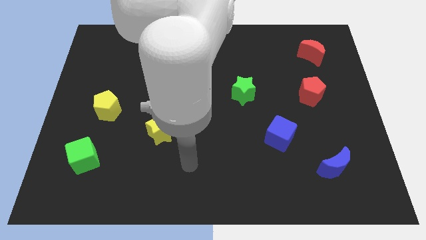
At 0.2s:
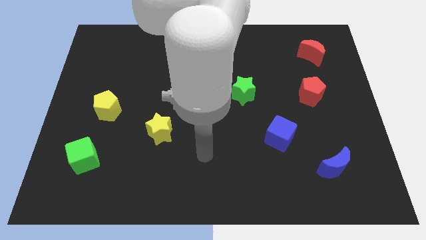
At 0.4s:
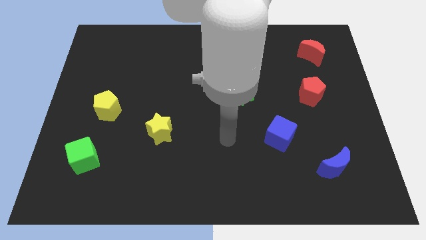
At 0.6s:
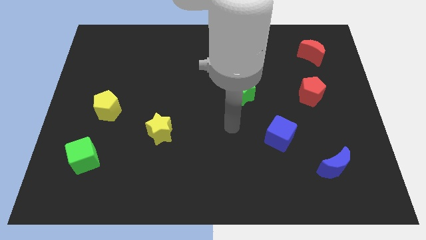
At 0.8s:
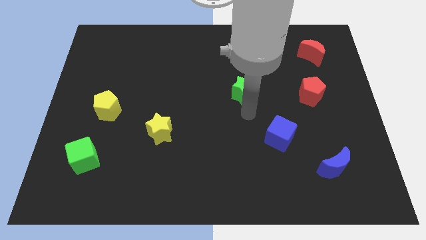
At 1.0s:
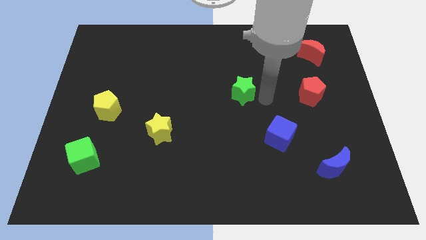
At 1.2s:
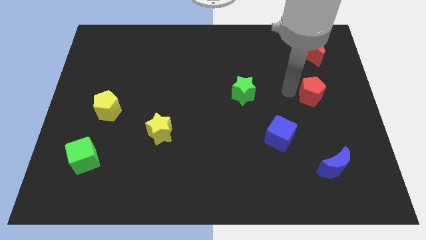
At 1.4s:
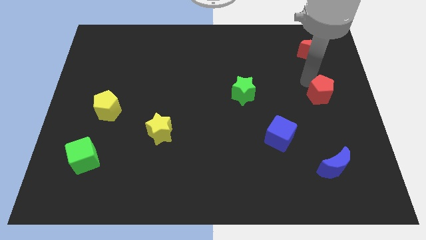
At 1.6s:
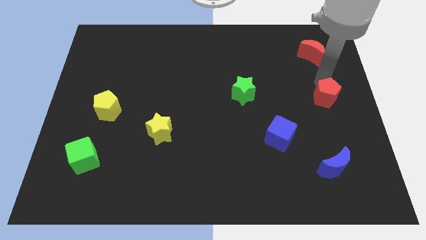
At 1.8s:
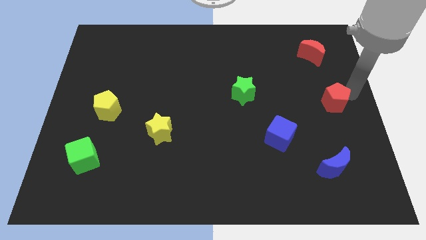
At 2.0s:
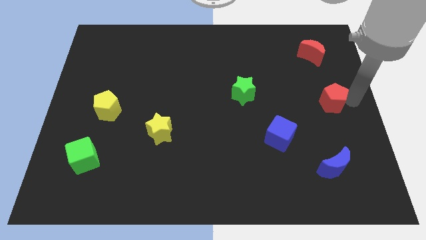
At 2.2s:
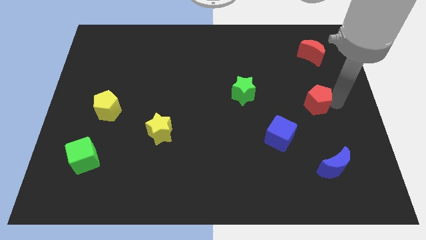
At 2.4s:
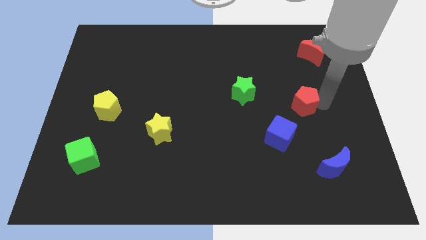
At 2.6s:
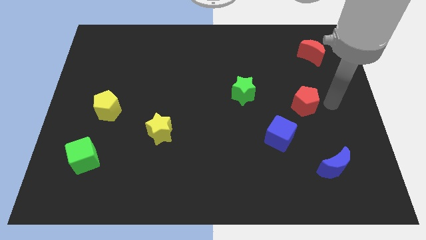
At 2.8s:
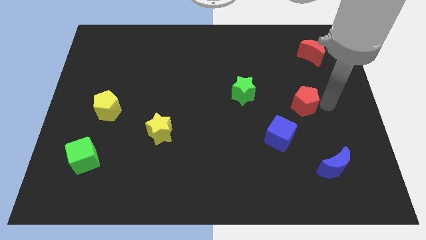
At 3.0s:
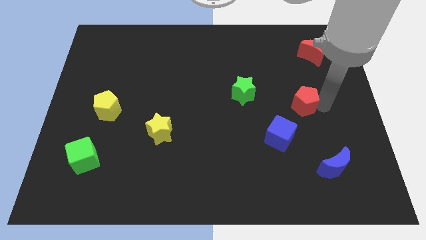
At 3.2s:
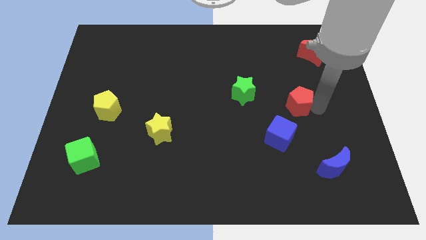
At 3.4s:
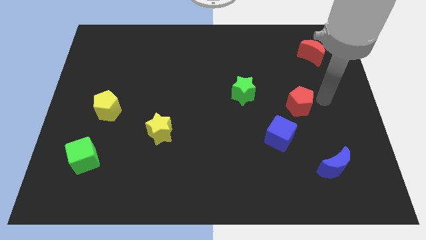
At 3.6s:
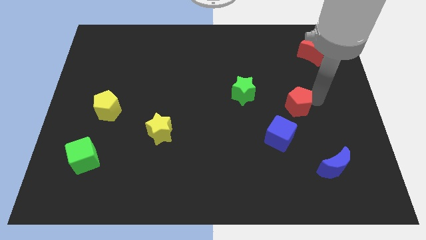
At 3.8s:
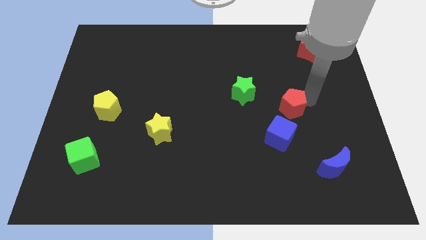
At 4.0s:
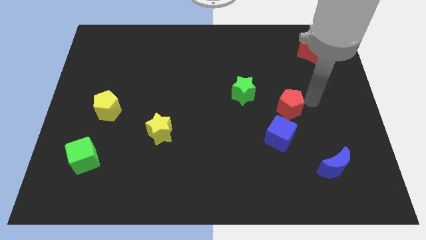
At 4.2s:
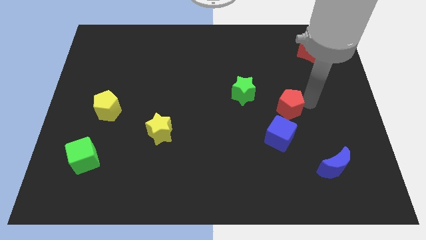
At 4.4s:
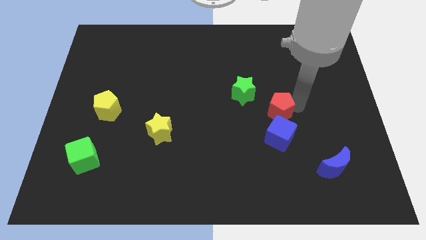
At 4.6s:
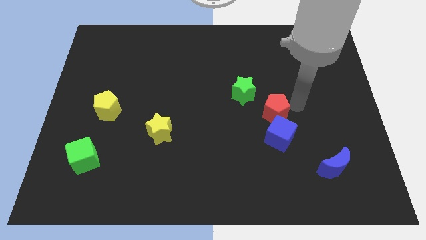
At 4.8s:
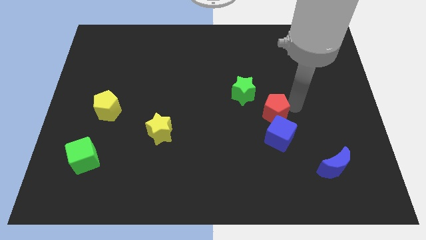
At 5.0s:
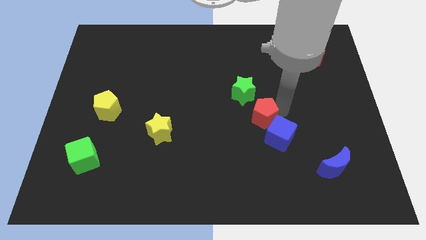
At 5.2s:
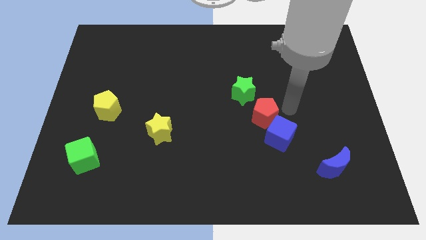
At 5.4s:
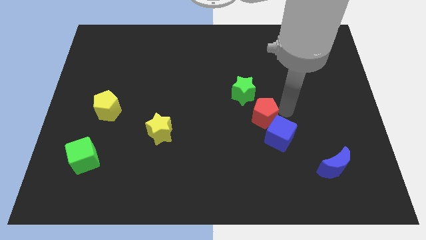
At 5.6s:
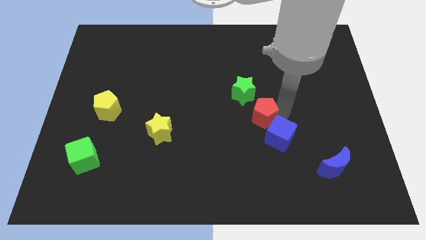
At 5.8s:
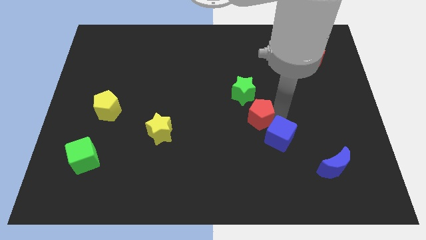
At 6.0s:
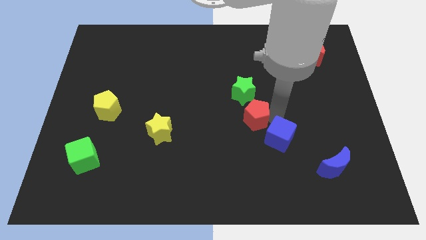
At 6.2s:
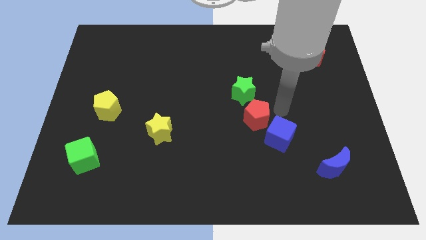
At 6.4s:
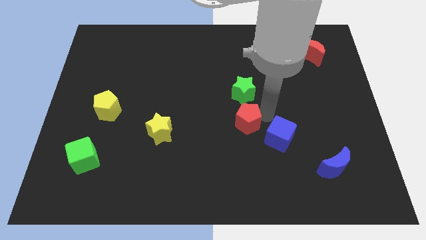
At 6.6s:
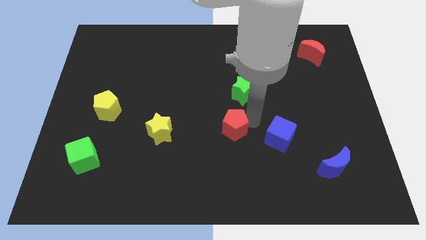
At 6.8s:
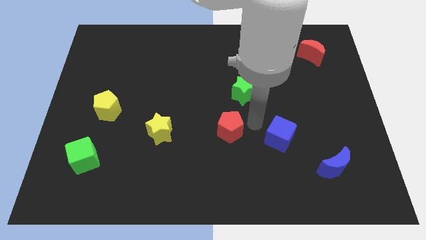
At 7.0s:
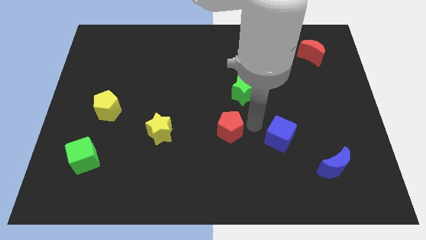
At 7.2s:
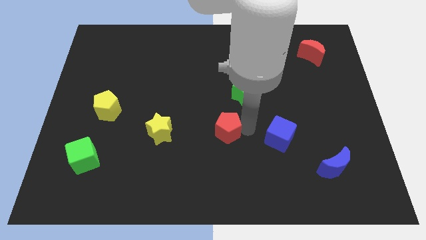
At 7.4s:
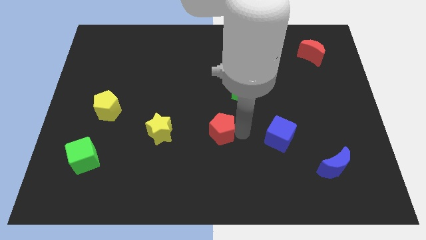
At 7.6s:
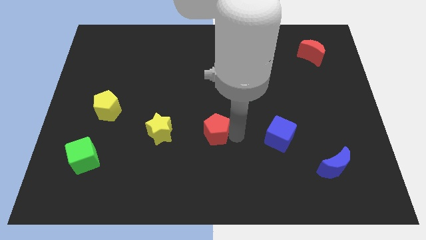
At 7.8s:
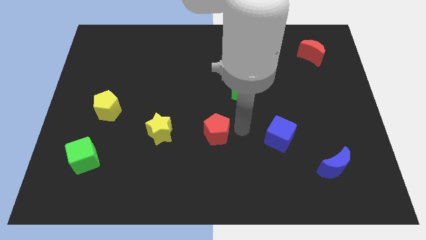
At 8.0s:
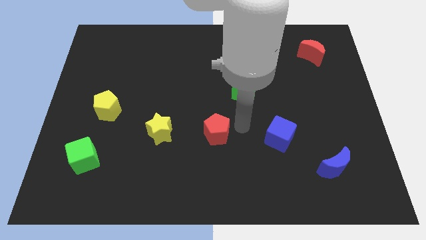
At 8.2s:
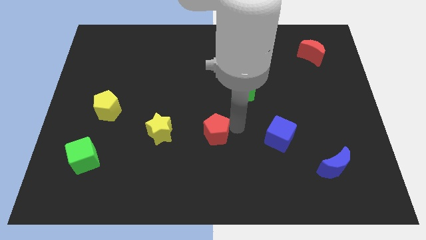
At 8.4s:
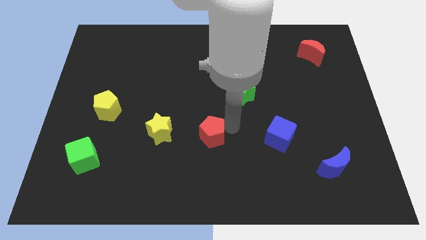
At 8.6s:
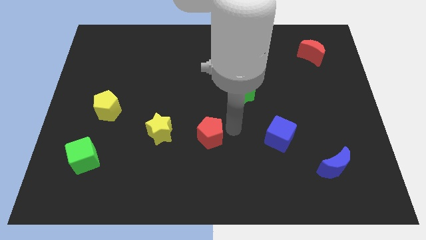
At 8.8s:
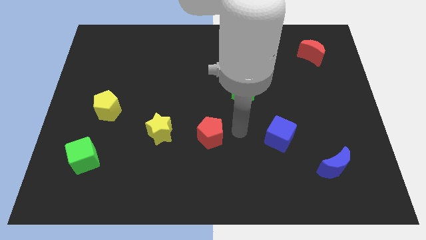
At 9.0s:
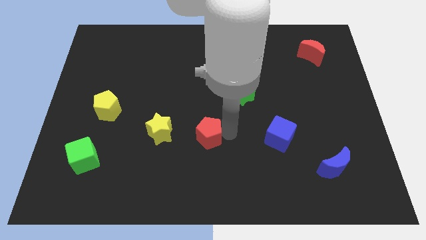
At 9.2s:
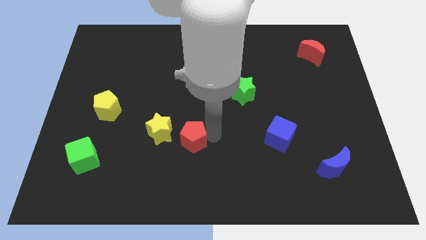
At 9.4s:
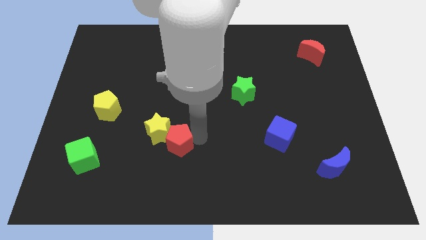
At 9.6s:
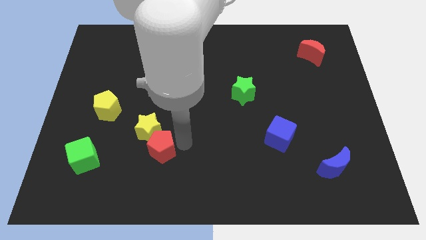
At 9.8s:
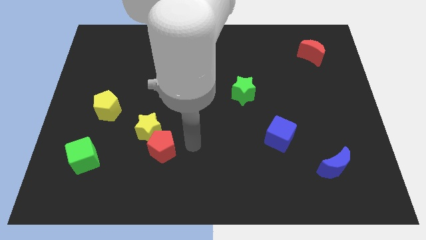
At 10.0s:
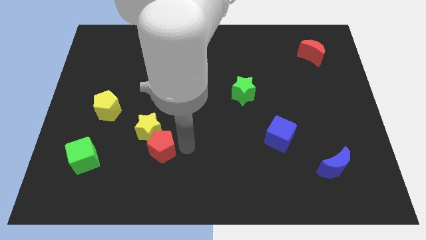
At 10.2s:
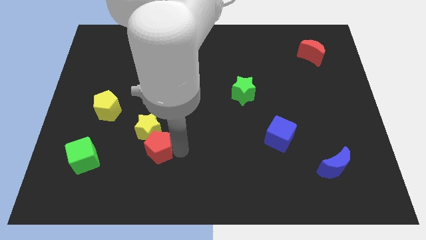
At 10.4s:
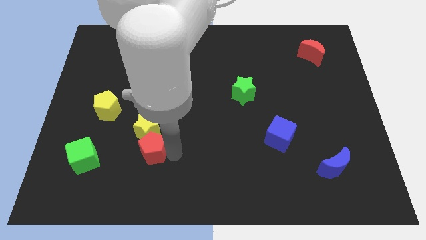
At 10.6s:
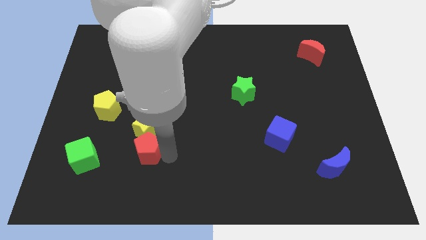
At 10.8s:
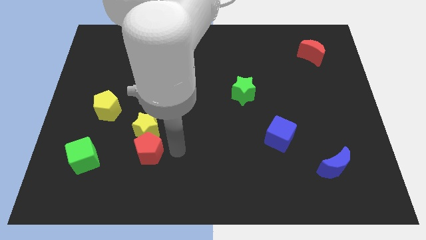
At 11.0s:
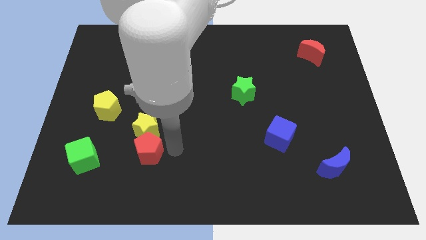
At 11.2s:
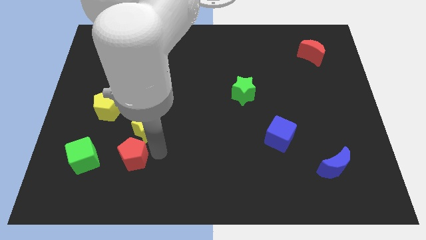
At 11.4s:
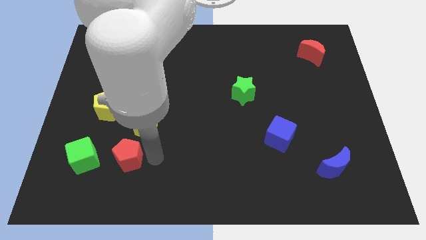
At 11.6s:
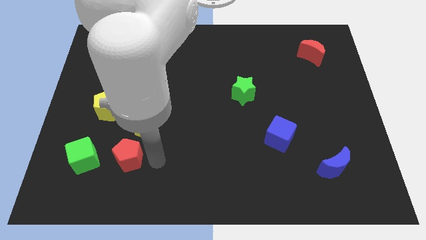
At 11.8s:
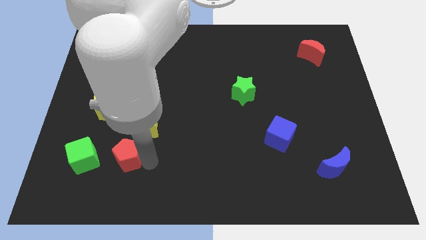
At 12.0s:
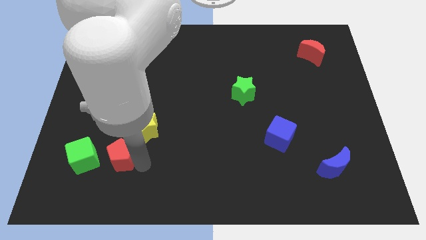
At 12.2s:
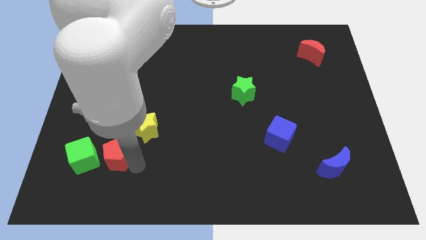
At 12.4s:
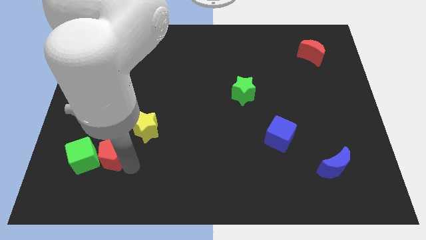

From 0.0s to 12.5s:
slide the red pentagon towards the green cube

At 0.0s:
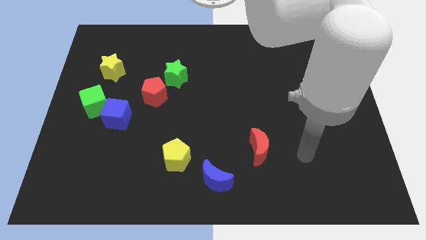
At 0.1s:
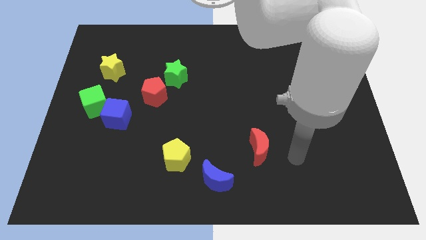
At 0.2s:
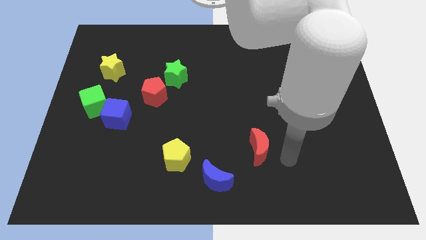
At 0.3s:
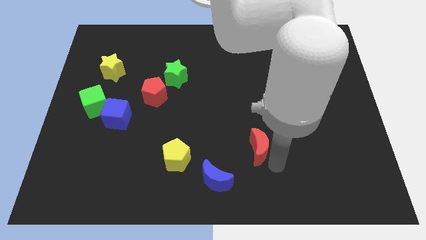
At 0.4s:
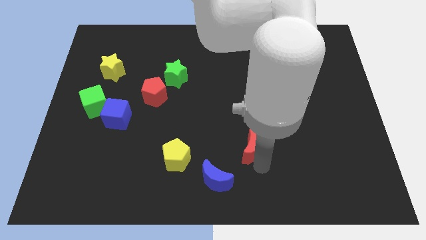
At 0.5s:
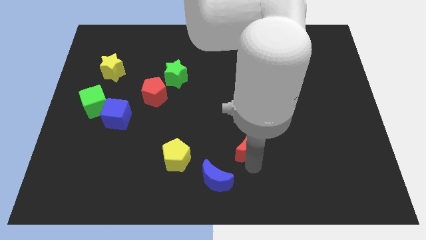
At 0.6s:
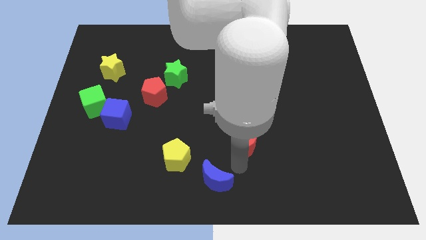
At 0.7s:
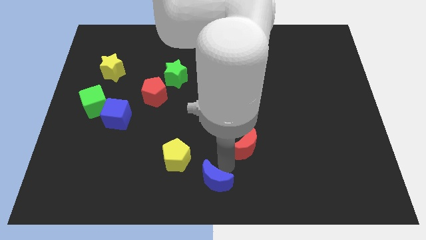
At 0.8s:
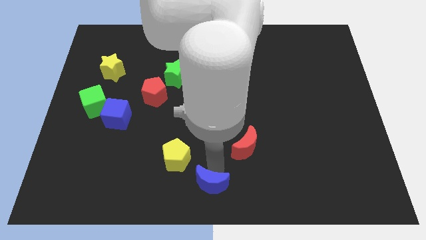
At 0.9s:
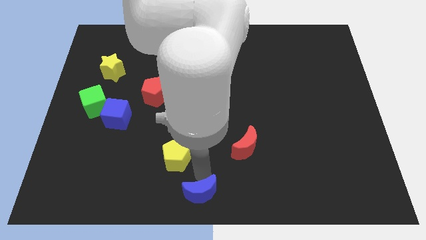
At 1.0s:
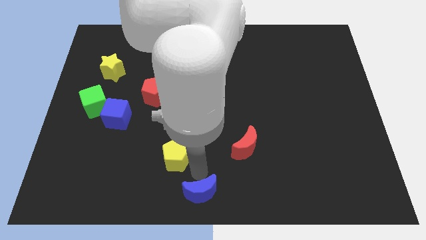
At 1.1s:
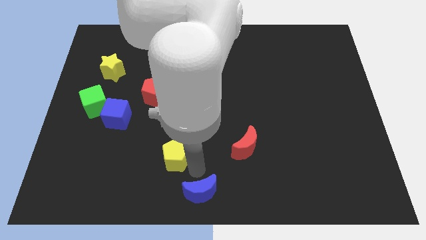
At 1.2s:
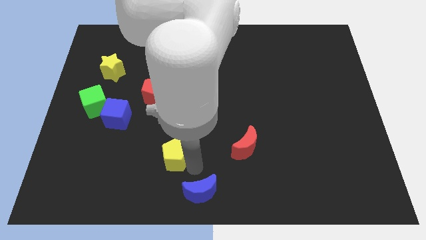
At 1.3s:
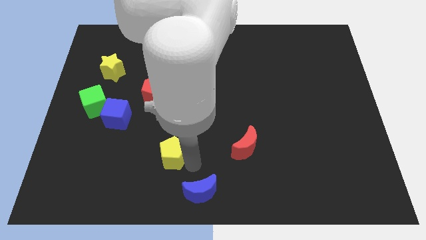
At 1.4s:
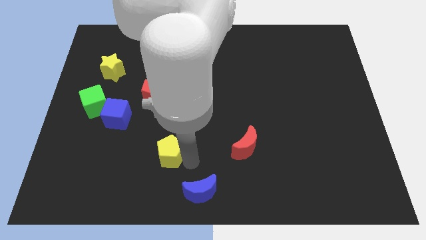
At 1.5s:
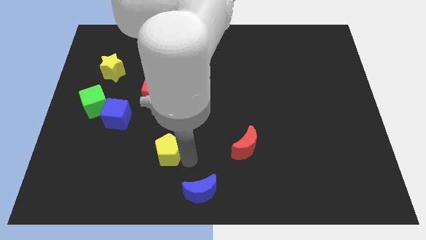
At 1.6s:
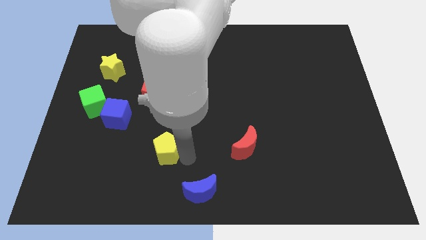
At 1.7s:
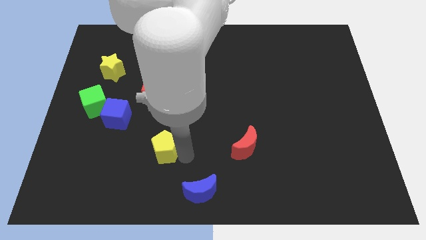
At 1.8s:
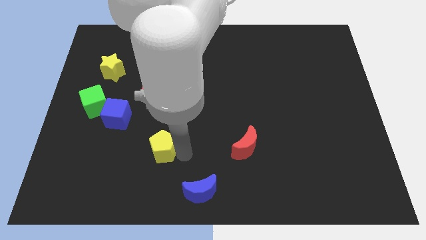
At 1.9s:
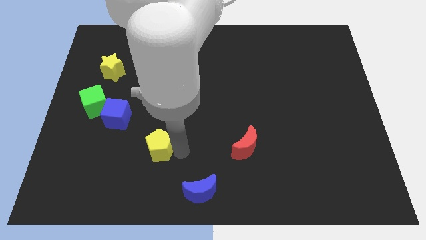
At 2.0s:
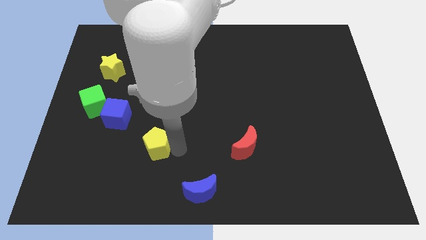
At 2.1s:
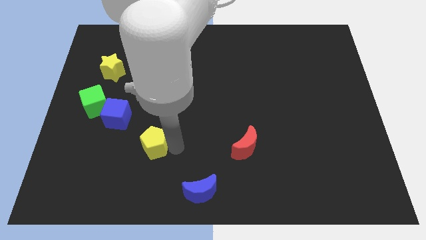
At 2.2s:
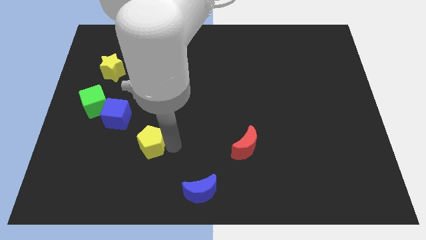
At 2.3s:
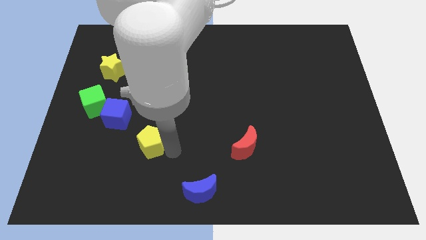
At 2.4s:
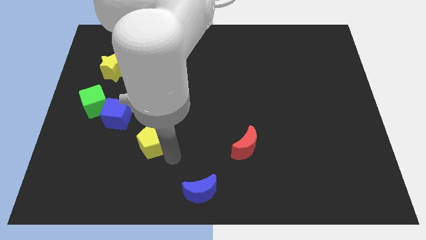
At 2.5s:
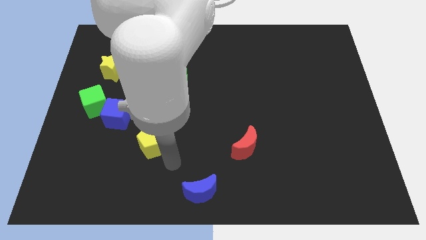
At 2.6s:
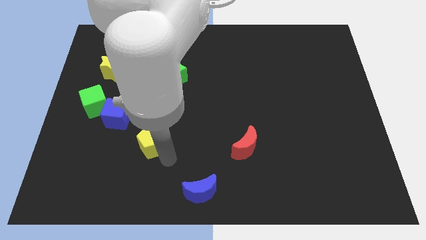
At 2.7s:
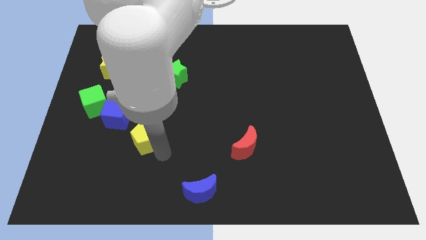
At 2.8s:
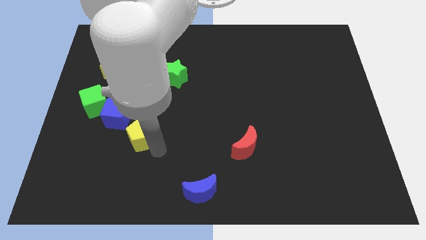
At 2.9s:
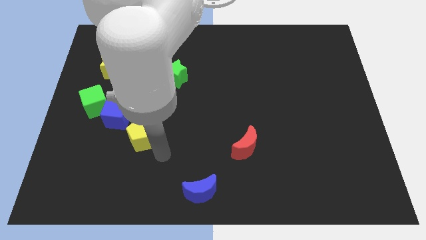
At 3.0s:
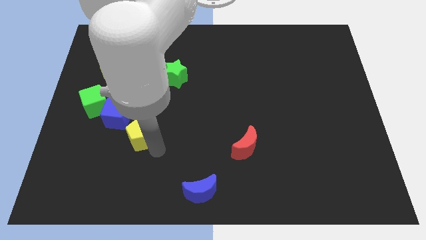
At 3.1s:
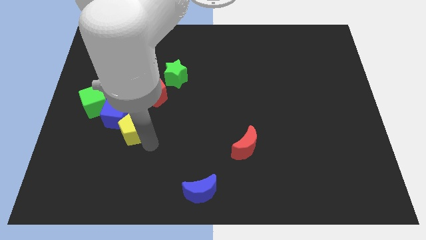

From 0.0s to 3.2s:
move the yellow pentagon to the blue cube
